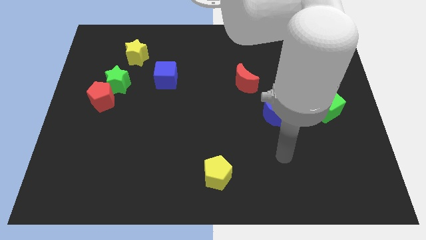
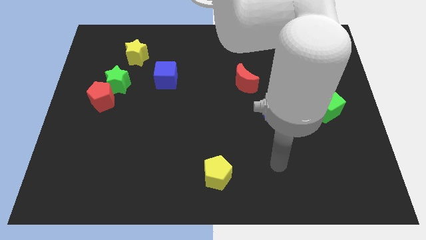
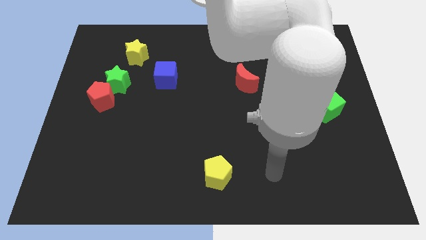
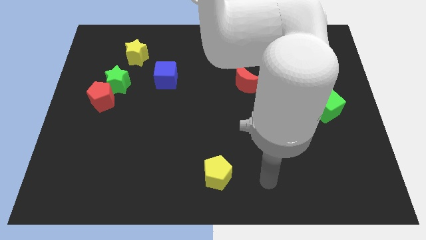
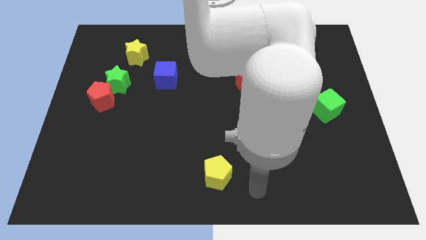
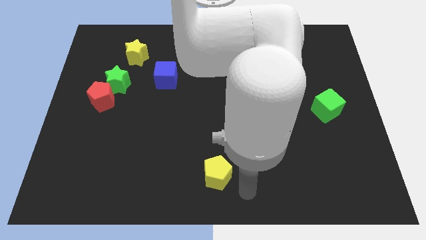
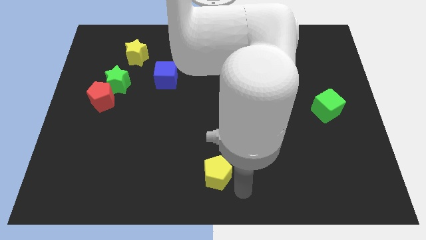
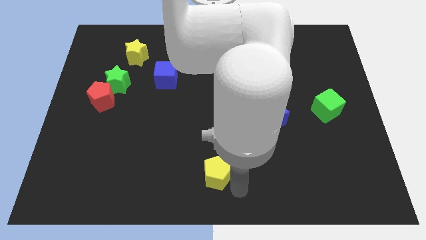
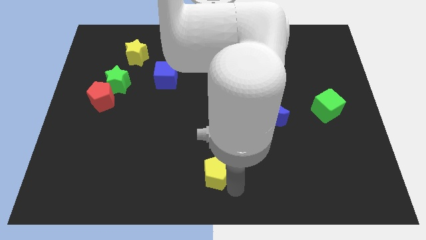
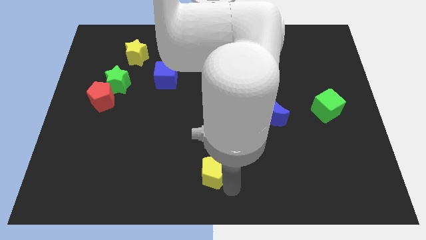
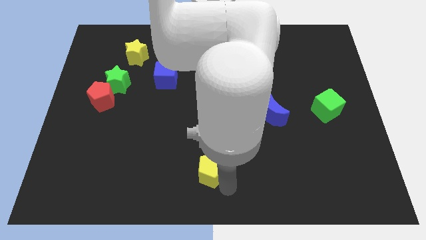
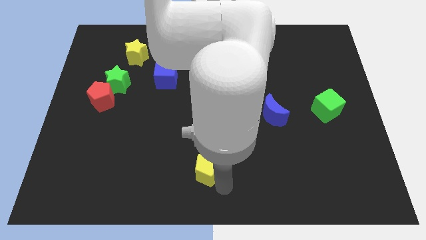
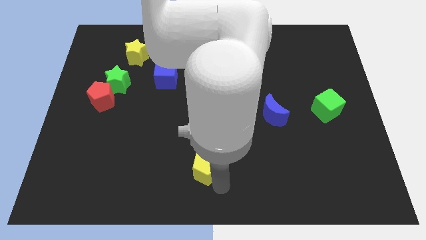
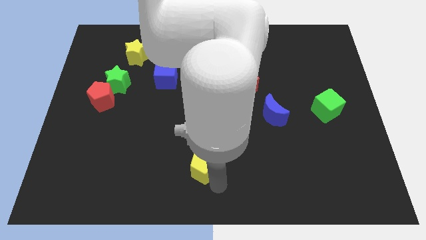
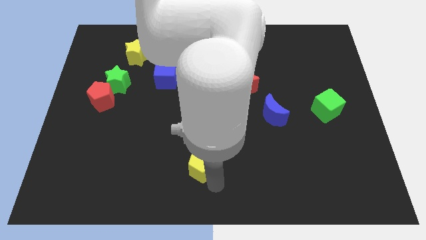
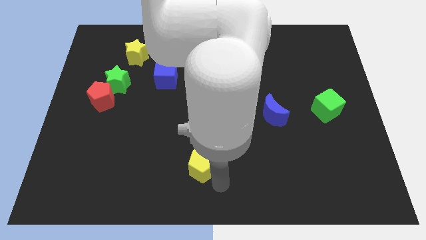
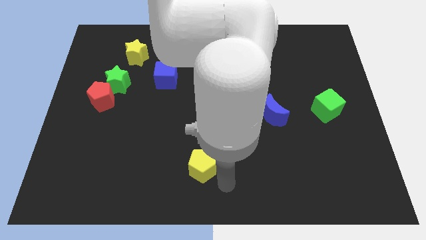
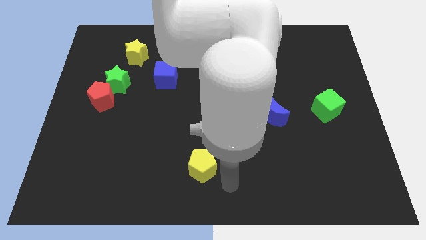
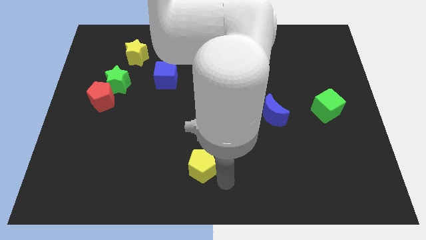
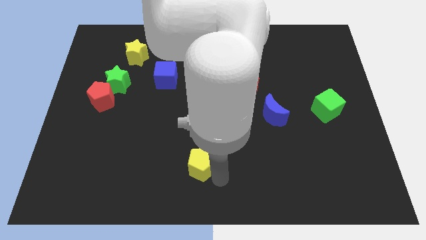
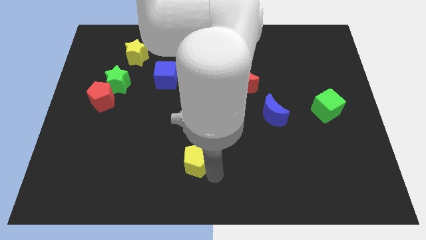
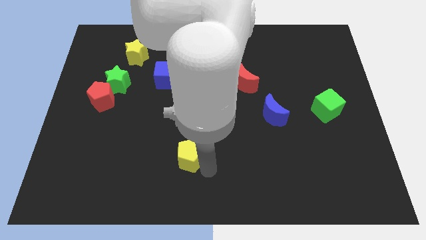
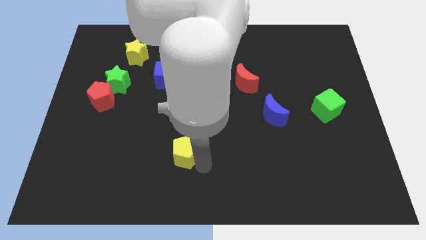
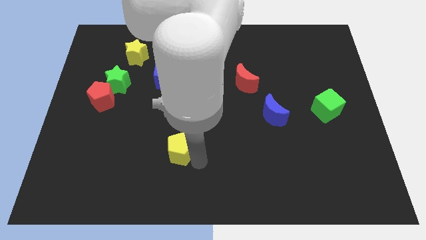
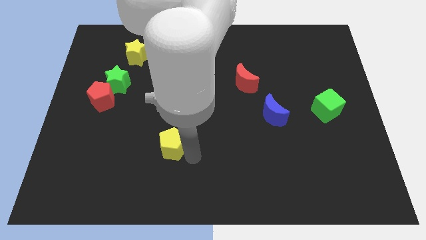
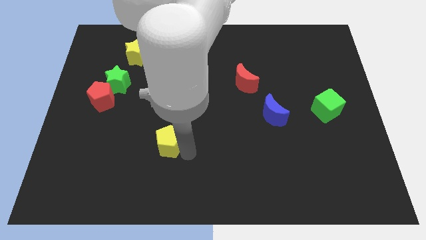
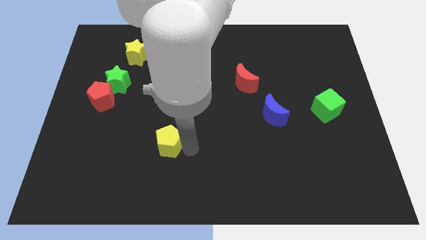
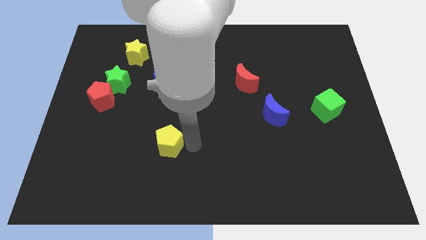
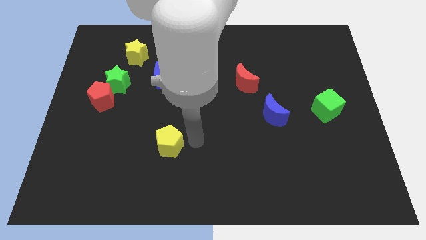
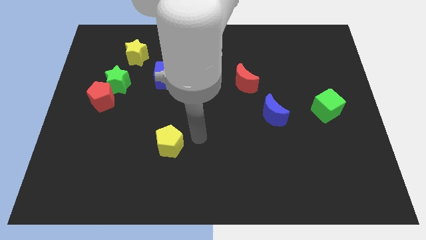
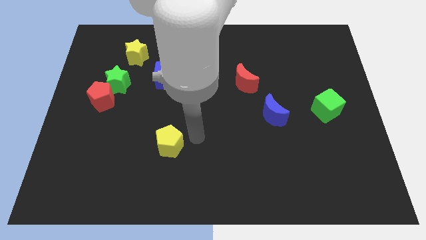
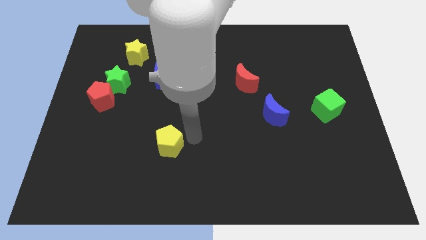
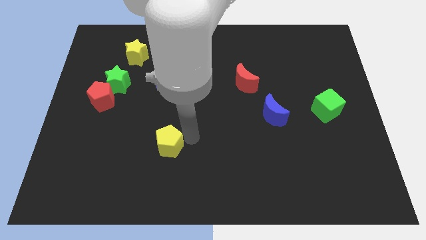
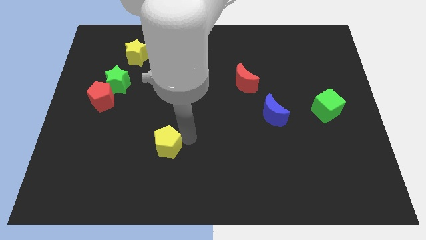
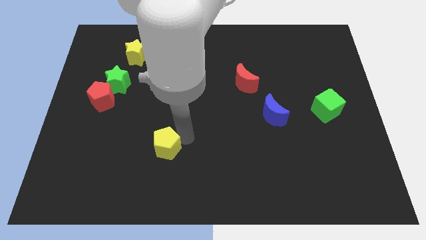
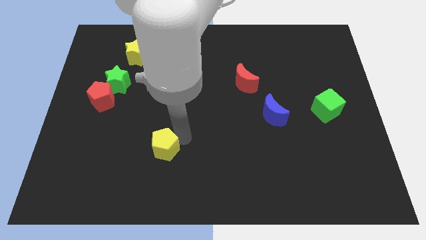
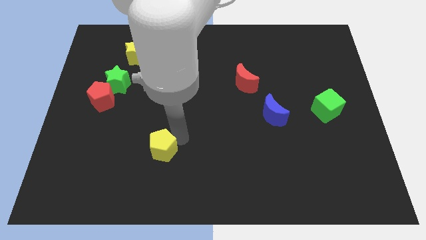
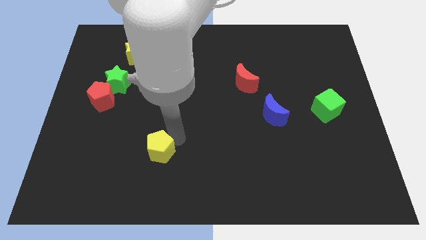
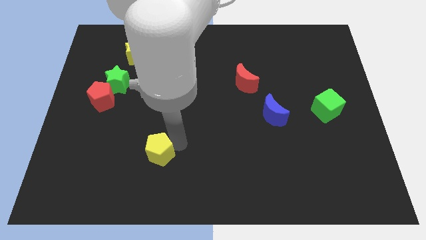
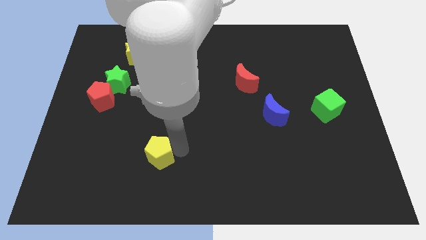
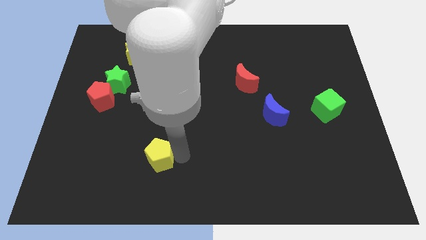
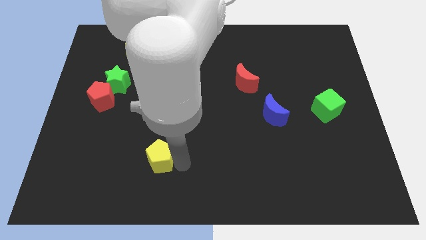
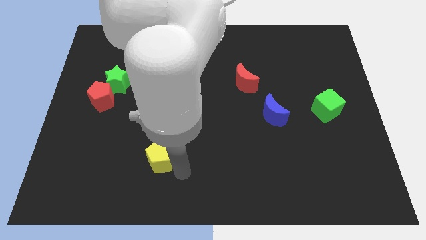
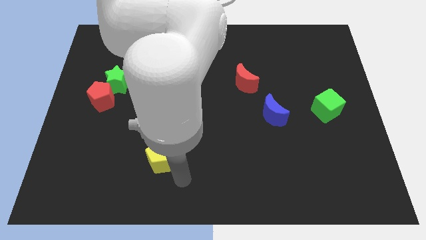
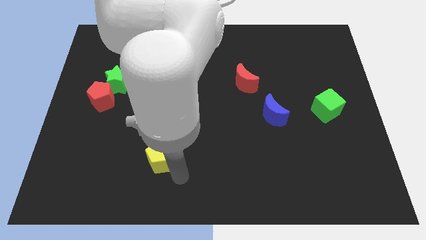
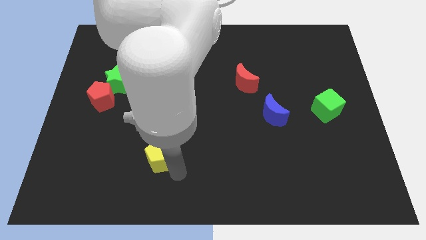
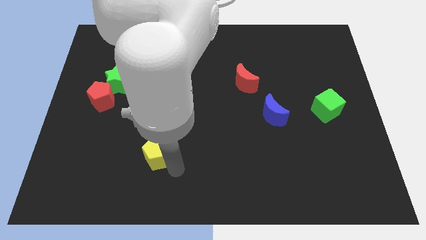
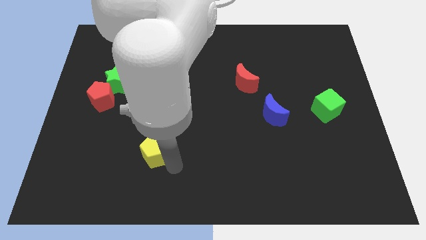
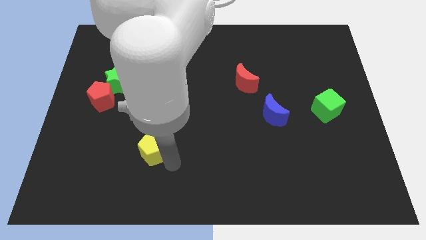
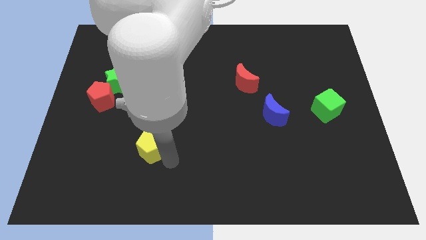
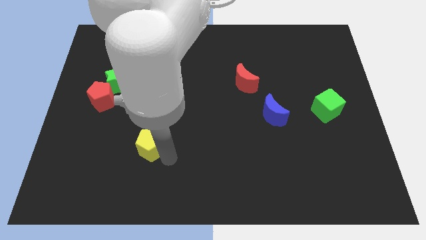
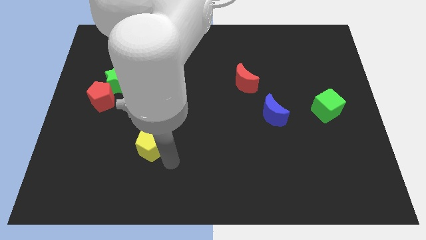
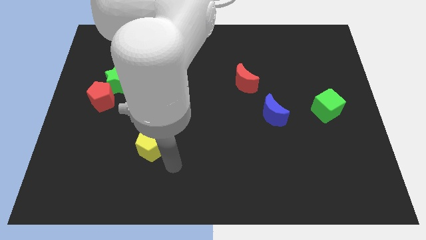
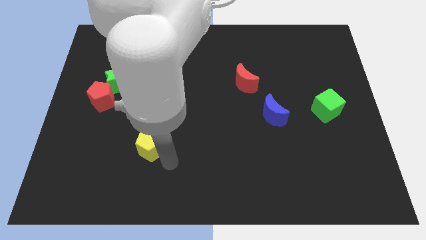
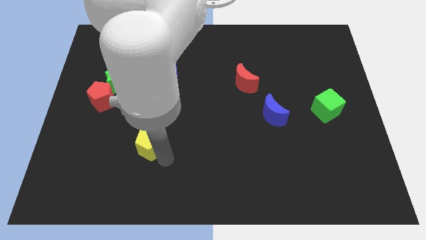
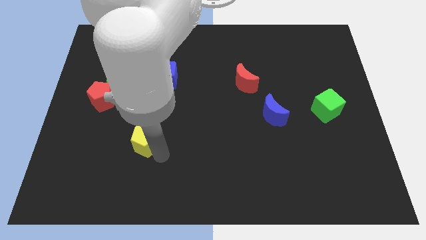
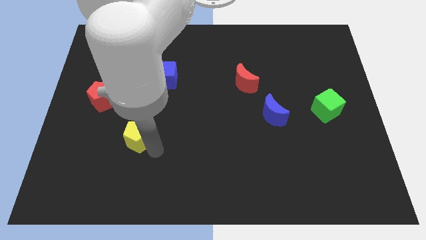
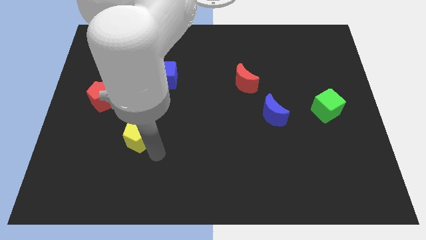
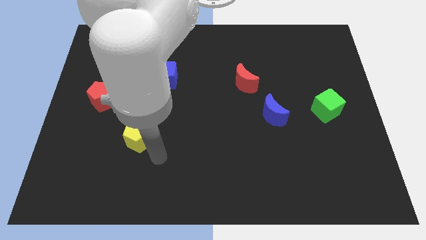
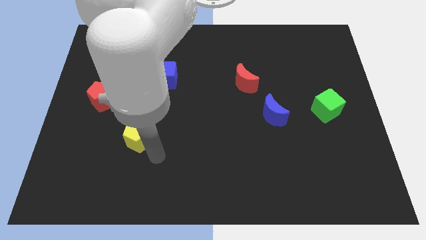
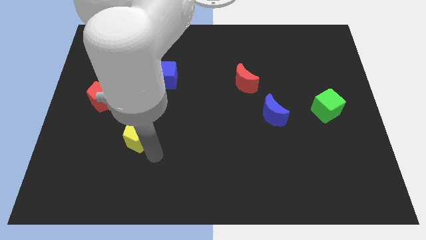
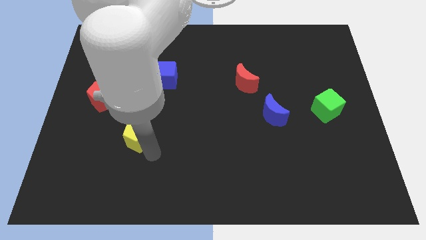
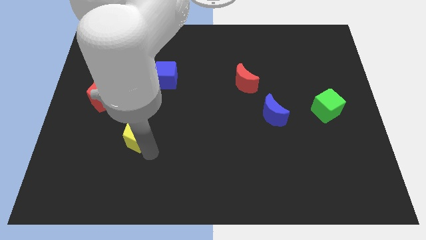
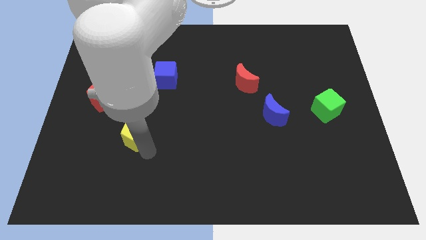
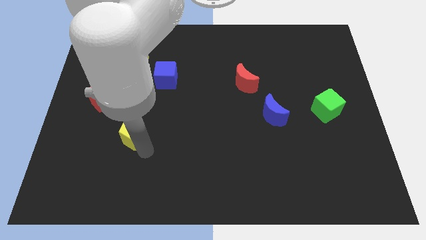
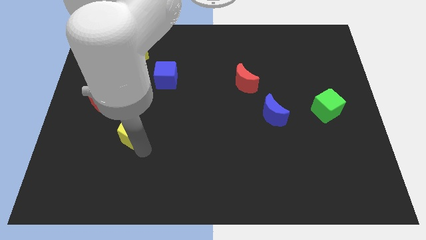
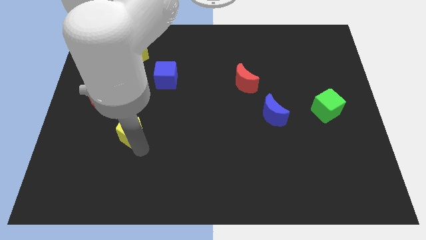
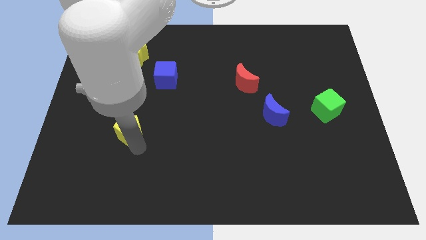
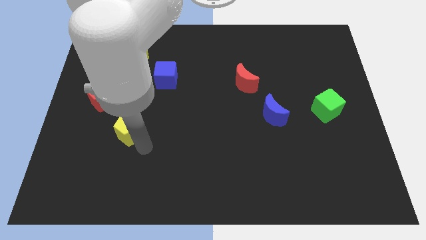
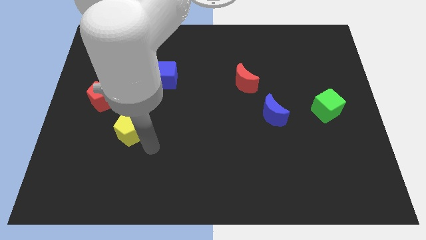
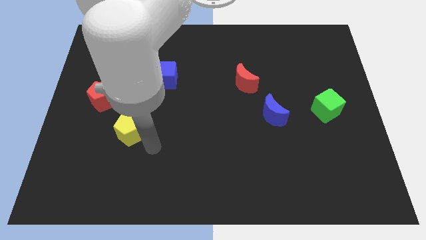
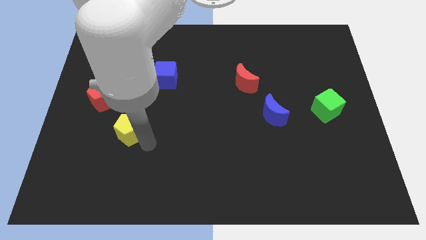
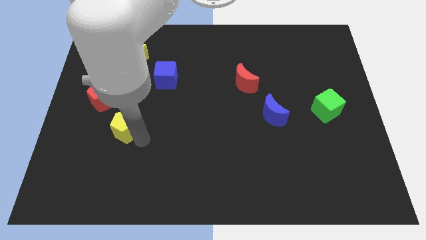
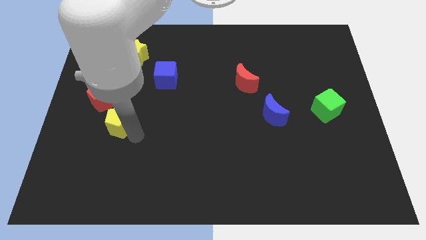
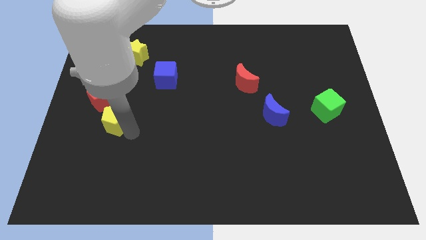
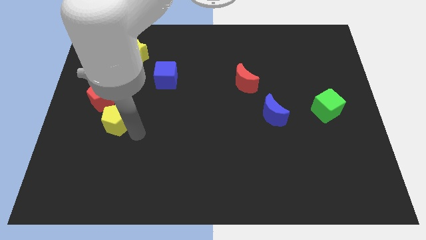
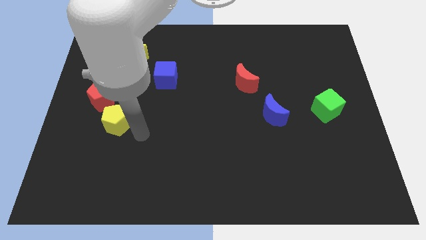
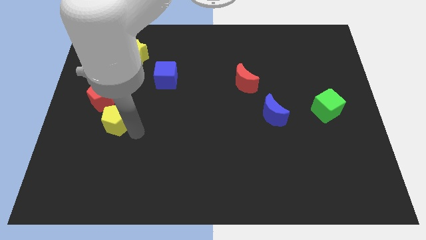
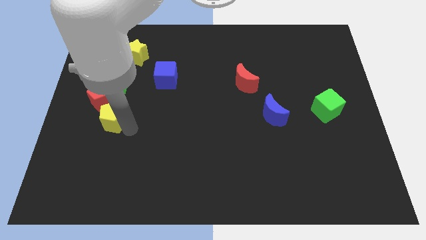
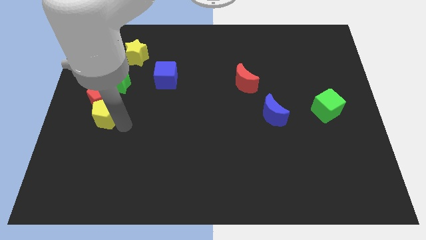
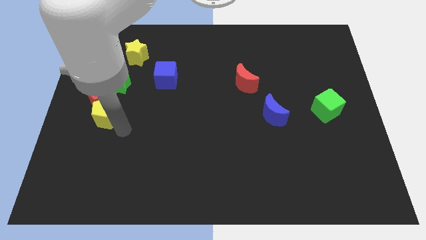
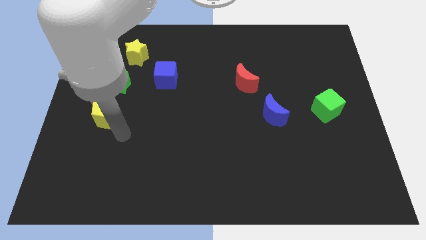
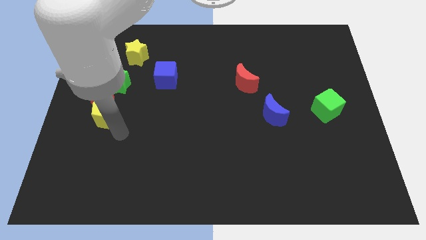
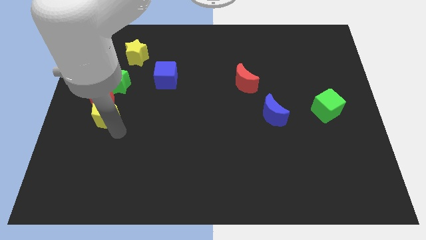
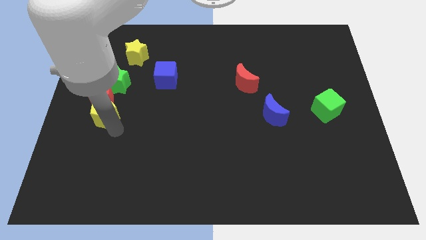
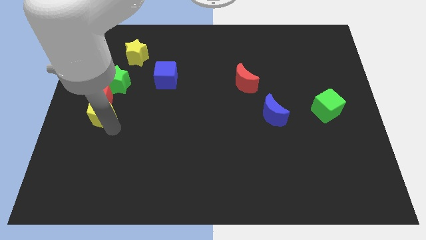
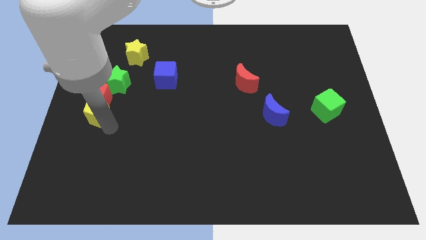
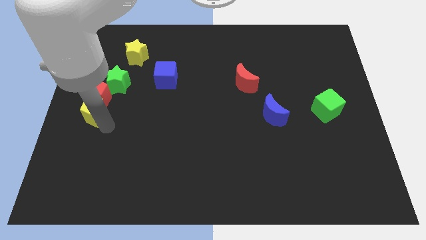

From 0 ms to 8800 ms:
put the yellow pentagon diagonally down and to the left of the green star
